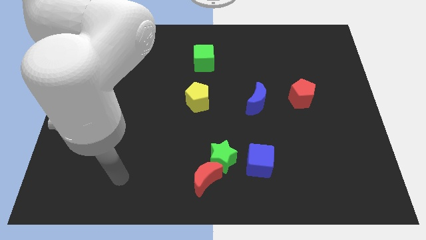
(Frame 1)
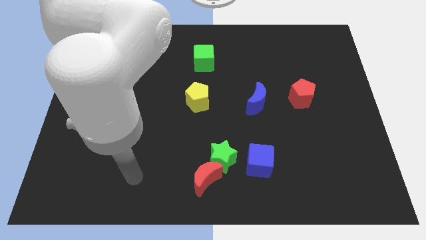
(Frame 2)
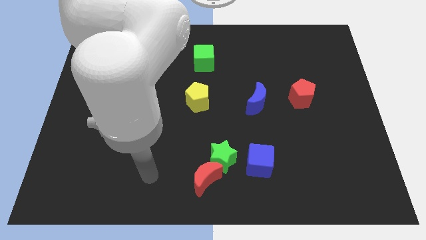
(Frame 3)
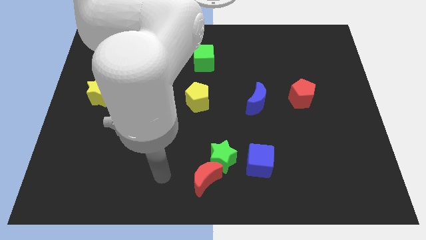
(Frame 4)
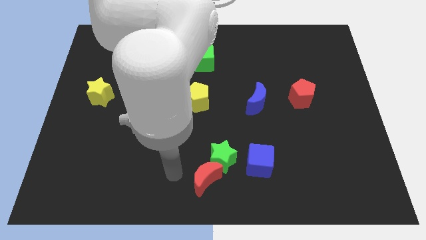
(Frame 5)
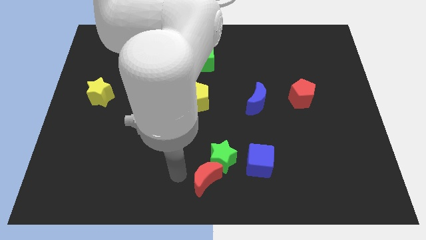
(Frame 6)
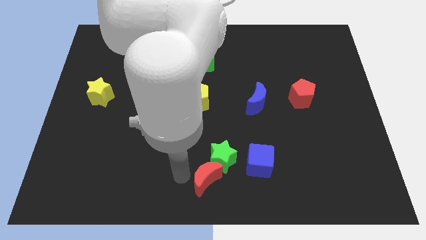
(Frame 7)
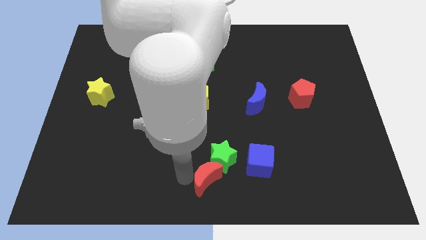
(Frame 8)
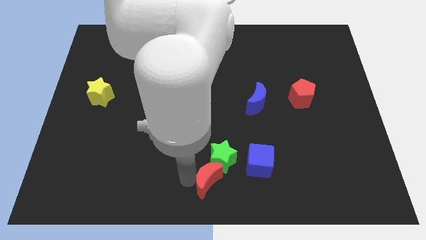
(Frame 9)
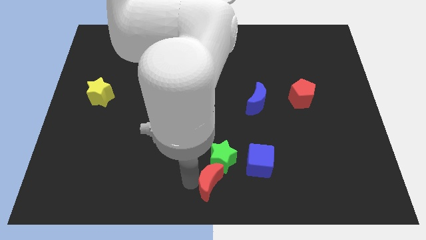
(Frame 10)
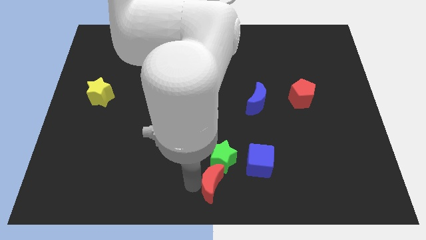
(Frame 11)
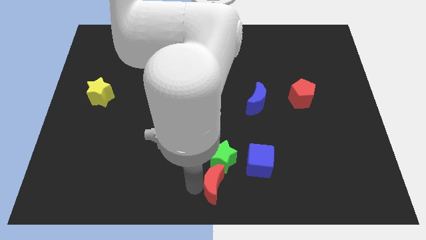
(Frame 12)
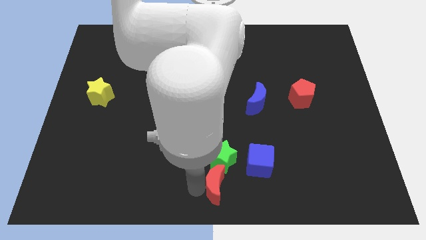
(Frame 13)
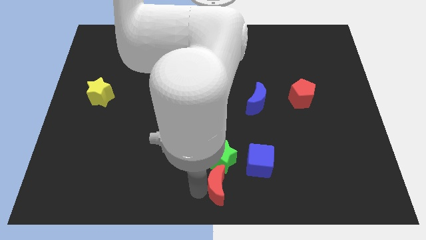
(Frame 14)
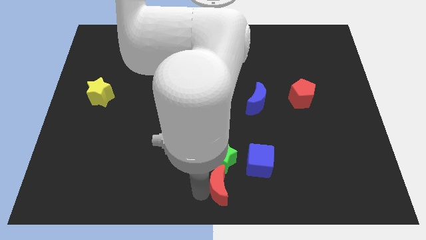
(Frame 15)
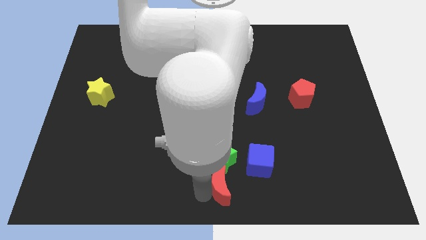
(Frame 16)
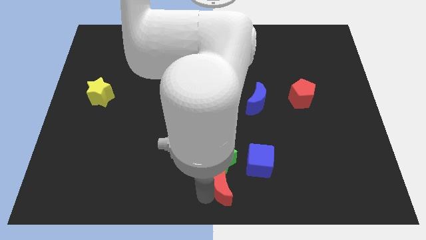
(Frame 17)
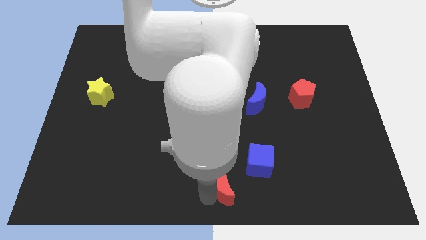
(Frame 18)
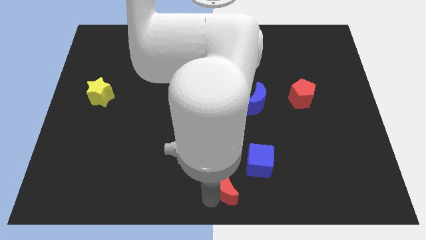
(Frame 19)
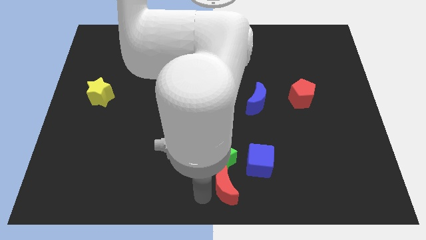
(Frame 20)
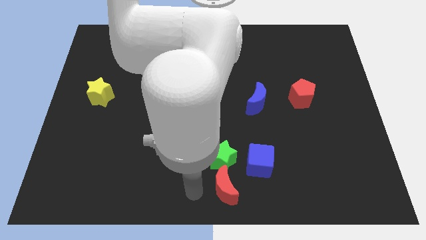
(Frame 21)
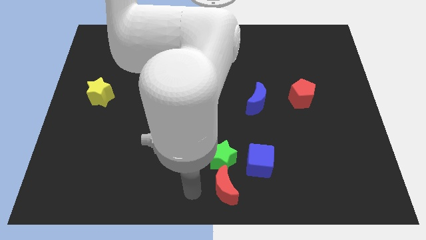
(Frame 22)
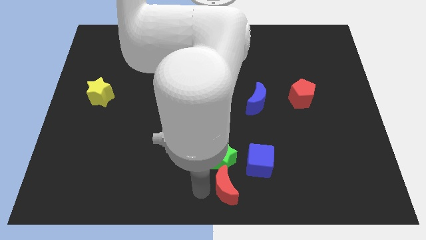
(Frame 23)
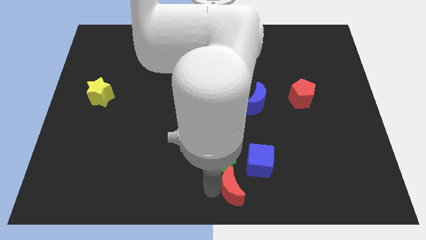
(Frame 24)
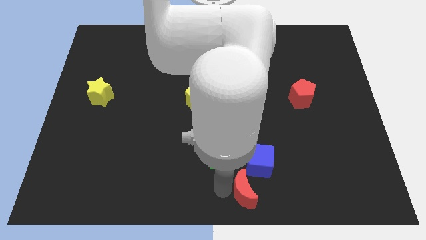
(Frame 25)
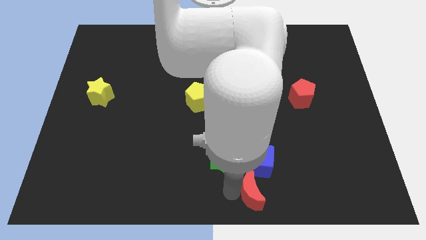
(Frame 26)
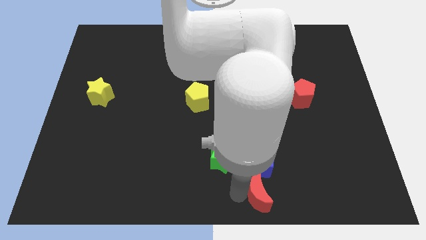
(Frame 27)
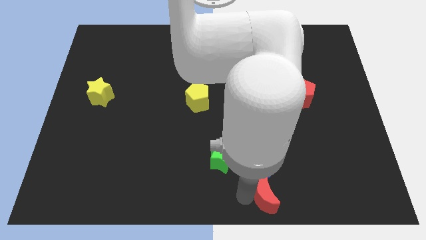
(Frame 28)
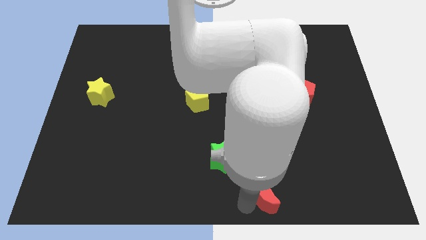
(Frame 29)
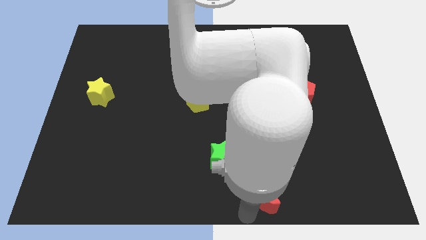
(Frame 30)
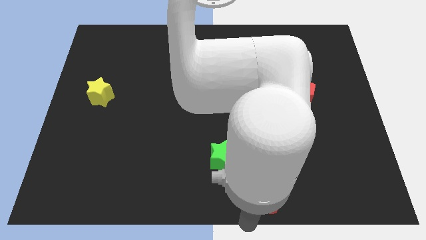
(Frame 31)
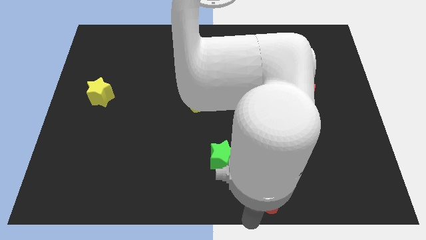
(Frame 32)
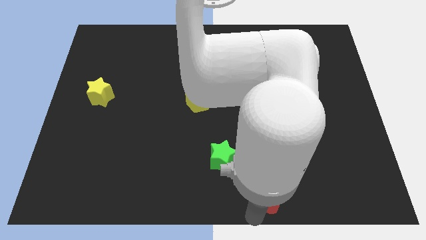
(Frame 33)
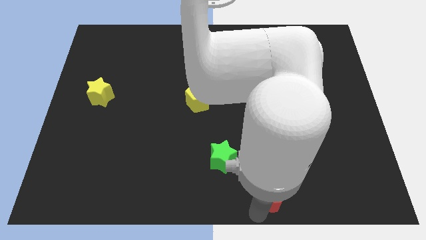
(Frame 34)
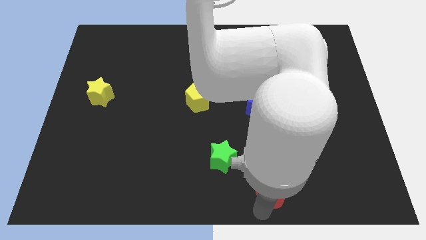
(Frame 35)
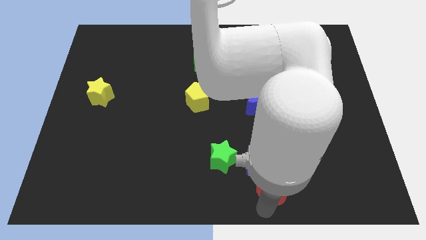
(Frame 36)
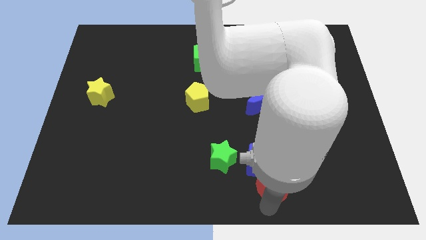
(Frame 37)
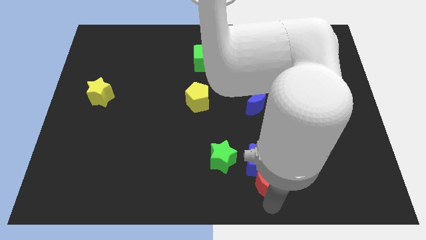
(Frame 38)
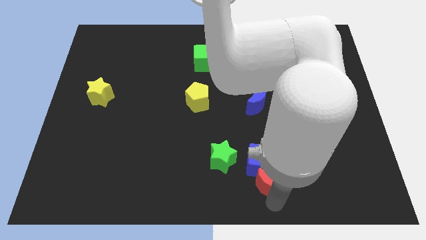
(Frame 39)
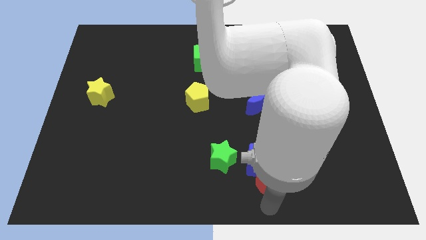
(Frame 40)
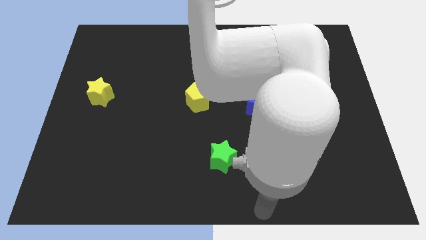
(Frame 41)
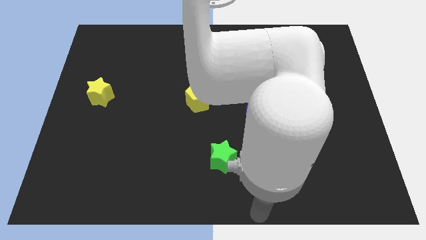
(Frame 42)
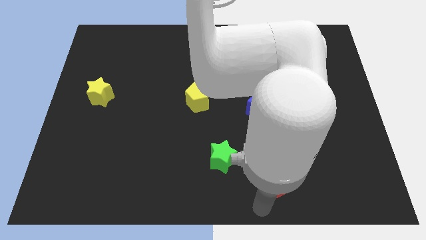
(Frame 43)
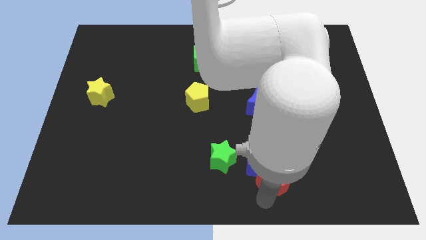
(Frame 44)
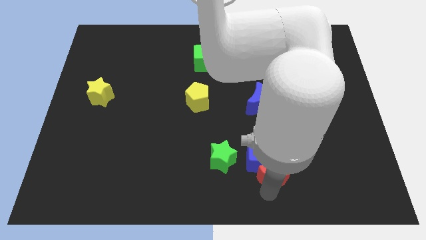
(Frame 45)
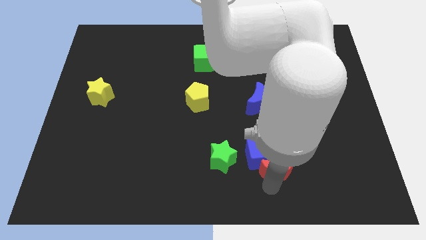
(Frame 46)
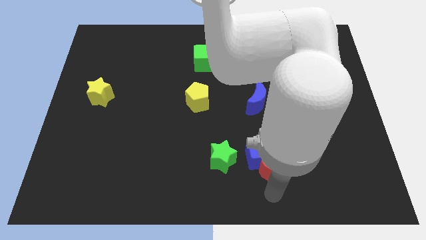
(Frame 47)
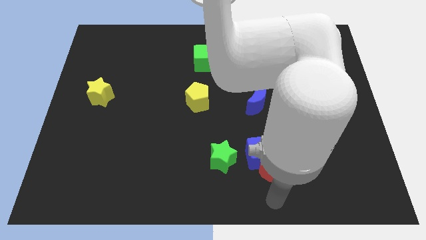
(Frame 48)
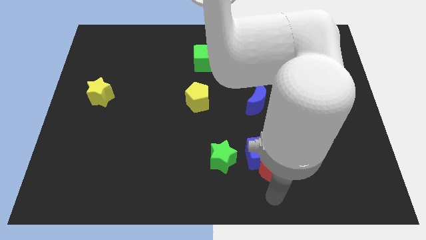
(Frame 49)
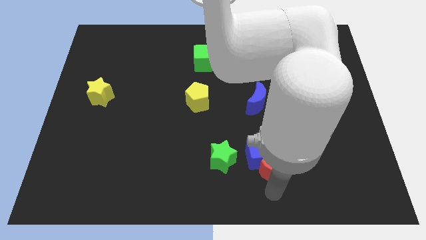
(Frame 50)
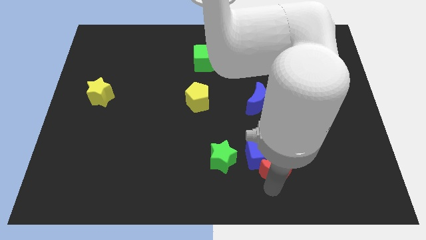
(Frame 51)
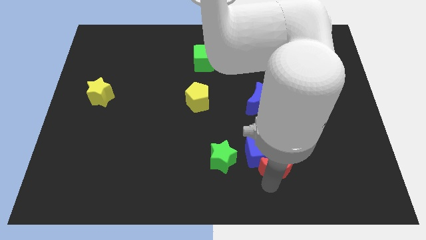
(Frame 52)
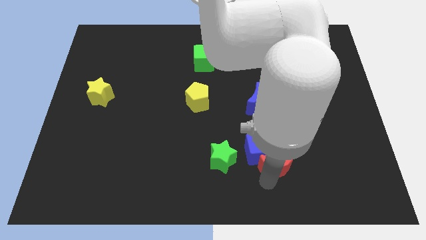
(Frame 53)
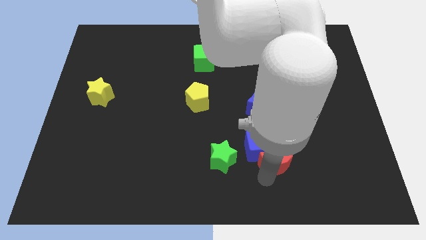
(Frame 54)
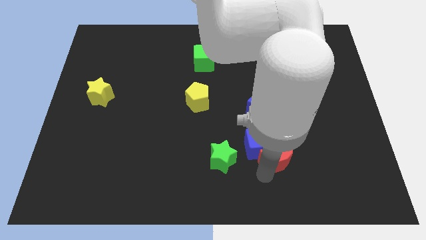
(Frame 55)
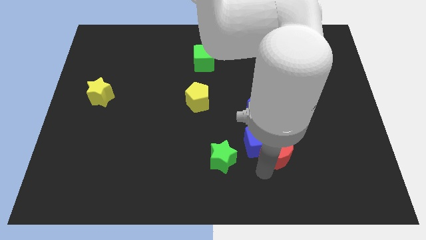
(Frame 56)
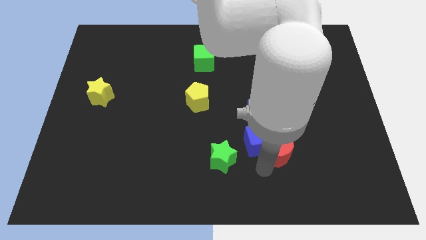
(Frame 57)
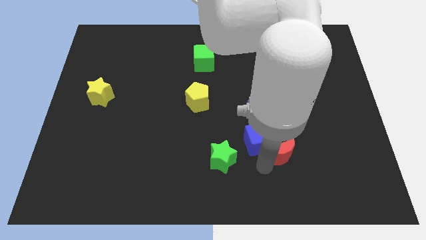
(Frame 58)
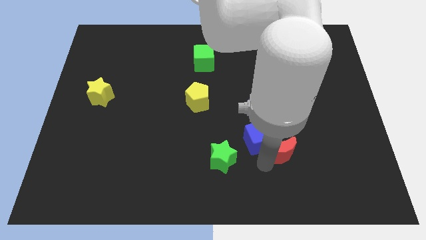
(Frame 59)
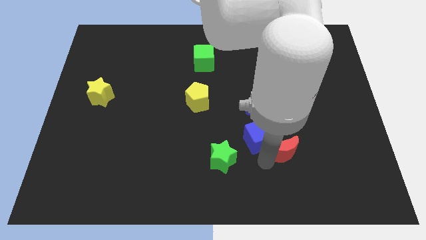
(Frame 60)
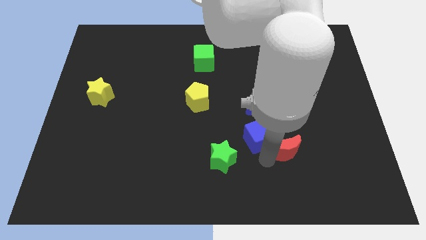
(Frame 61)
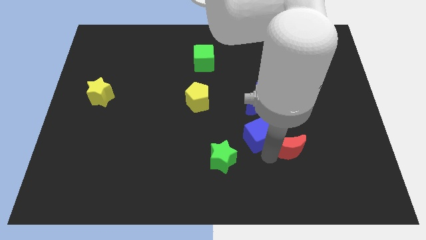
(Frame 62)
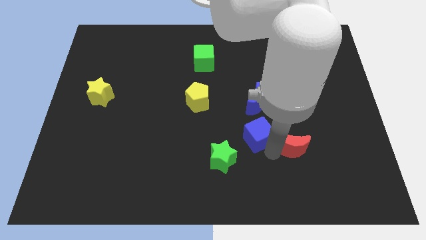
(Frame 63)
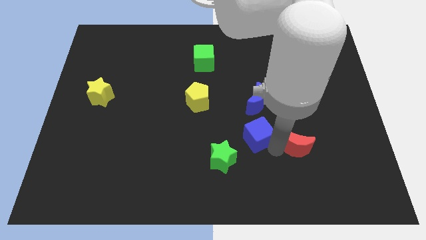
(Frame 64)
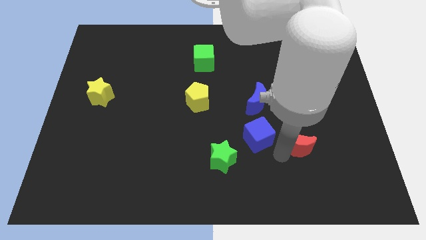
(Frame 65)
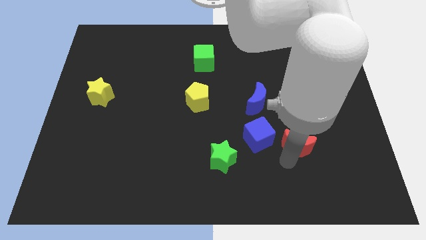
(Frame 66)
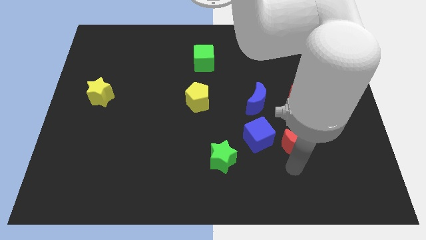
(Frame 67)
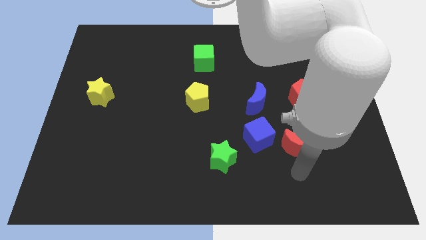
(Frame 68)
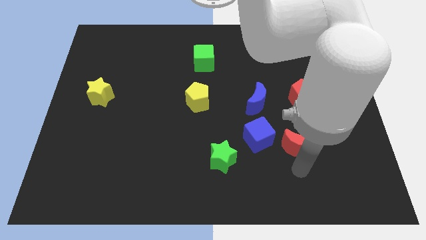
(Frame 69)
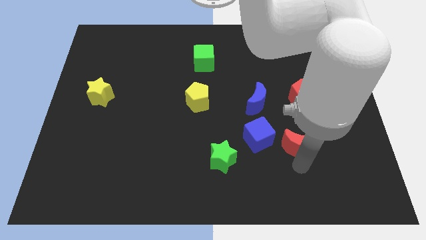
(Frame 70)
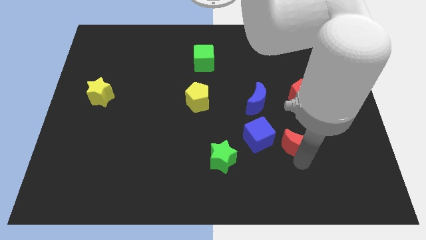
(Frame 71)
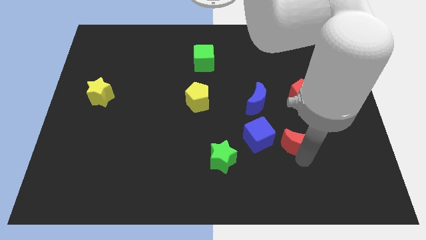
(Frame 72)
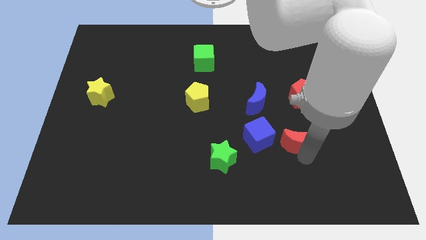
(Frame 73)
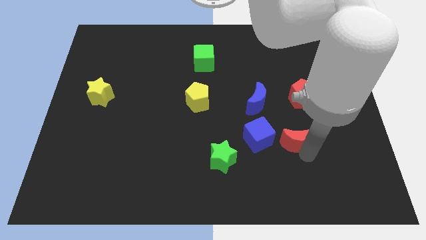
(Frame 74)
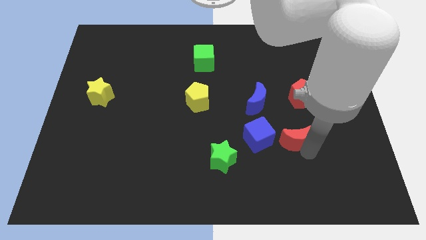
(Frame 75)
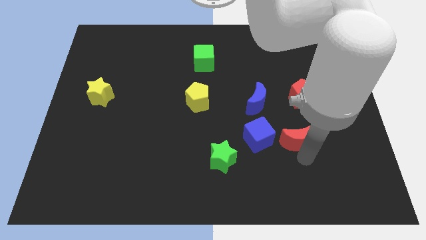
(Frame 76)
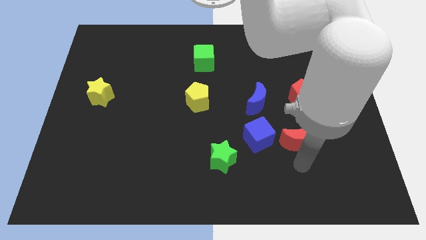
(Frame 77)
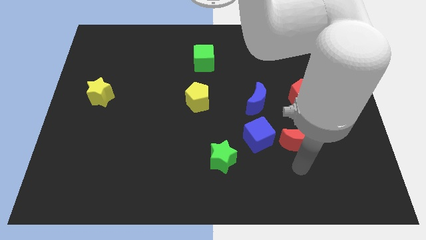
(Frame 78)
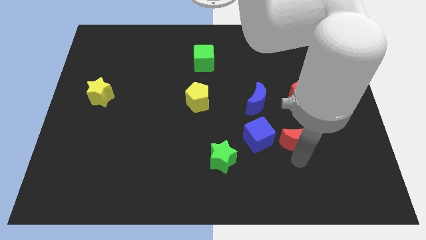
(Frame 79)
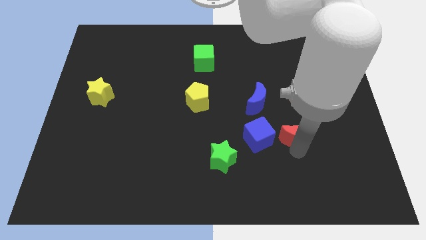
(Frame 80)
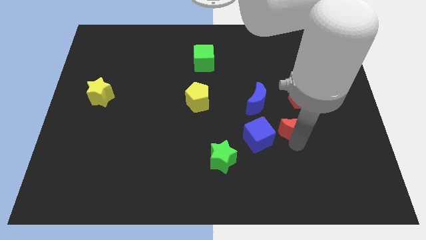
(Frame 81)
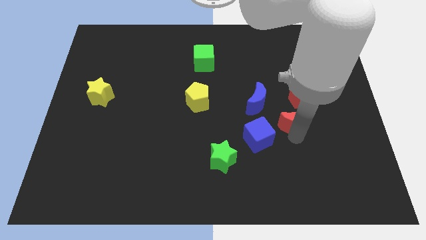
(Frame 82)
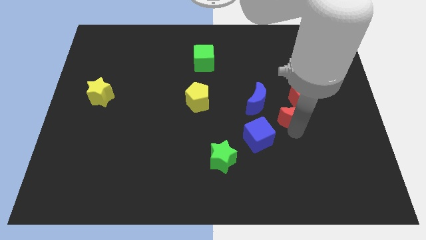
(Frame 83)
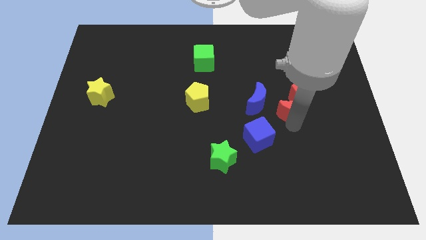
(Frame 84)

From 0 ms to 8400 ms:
push the red moon to the red pentagon
